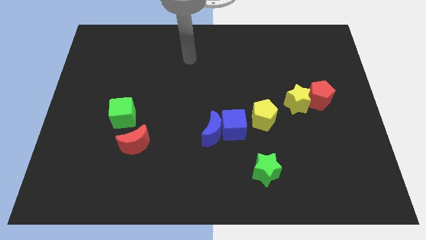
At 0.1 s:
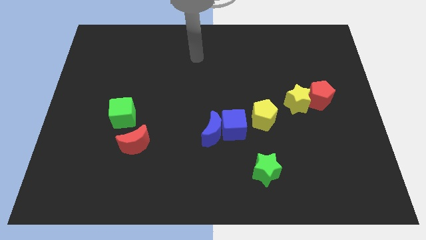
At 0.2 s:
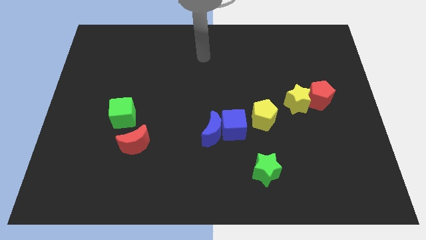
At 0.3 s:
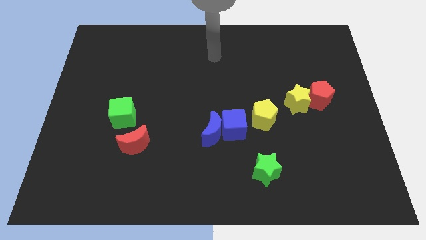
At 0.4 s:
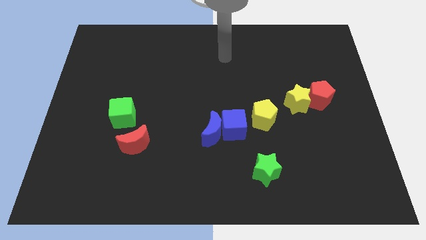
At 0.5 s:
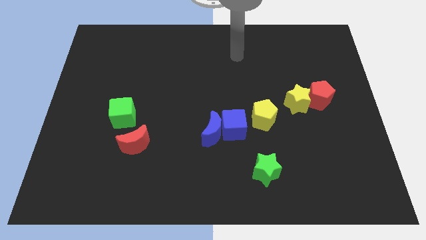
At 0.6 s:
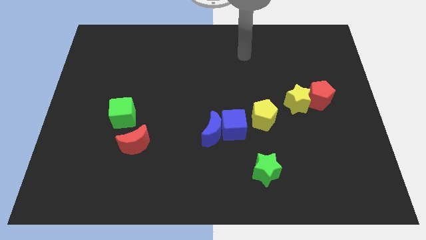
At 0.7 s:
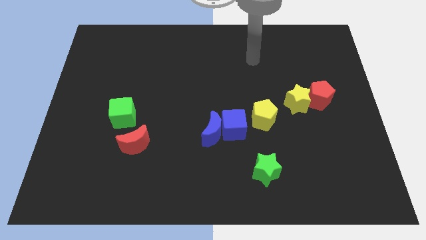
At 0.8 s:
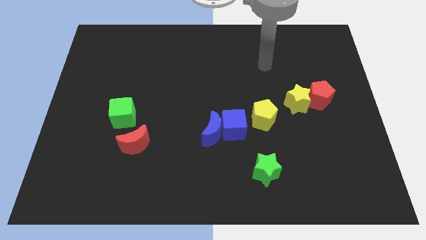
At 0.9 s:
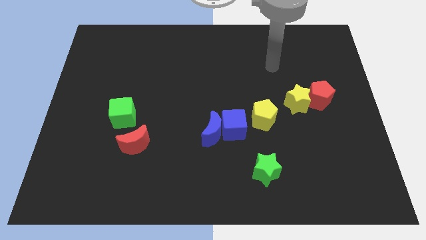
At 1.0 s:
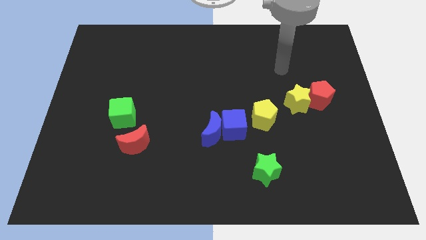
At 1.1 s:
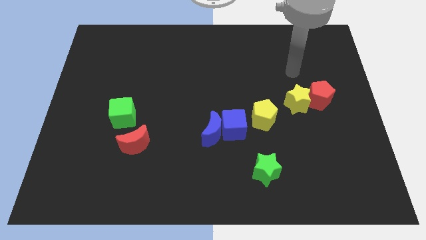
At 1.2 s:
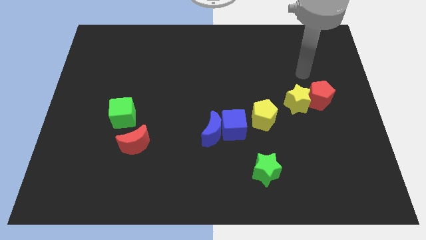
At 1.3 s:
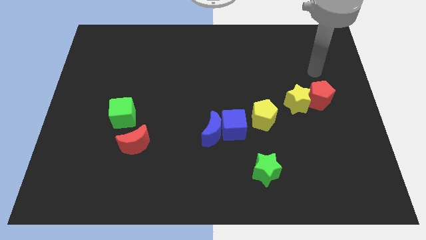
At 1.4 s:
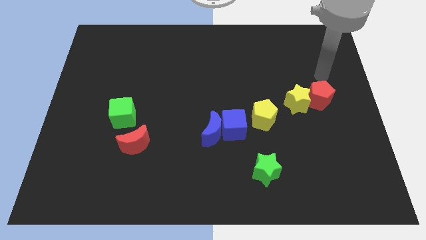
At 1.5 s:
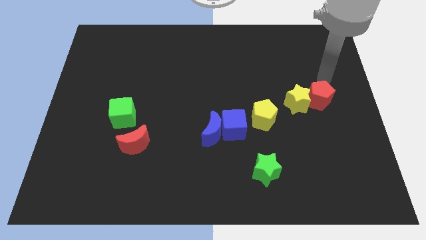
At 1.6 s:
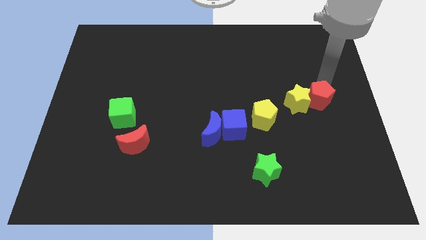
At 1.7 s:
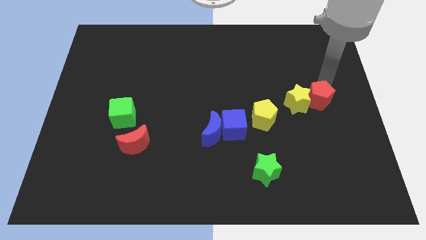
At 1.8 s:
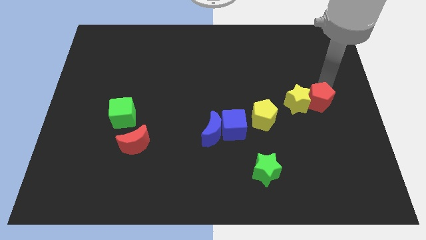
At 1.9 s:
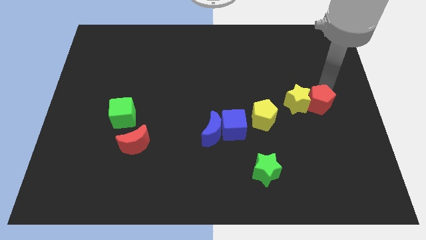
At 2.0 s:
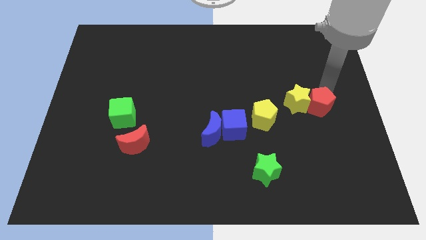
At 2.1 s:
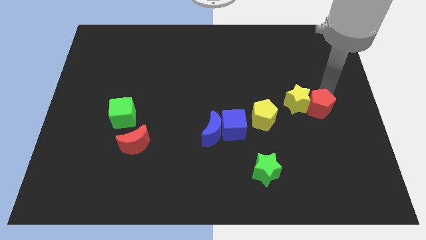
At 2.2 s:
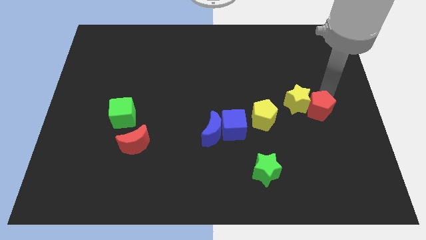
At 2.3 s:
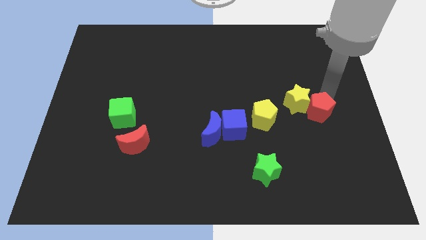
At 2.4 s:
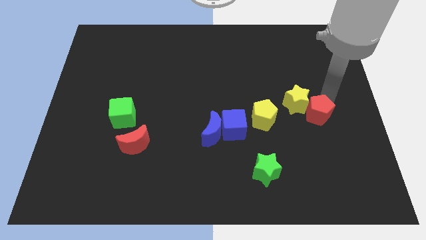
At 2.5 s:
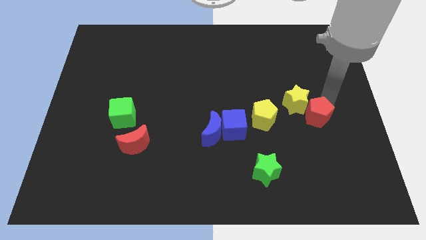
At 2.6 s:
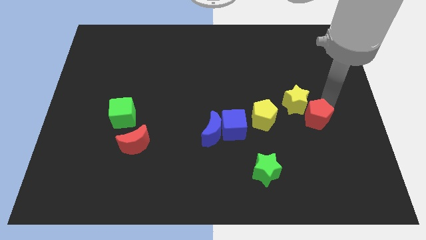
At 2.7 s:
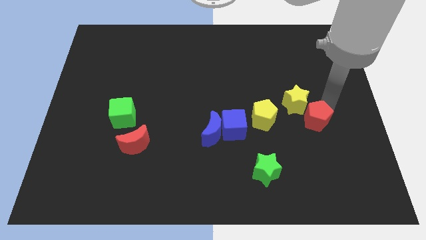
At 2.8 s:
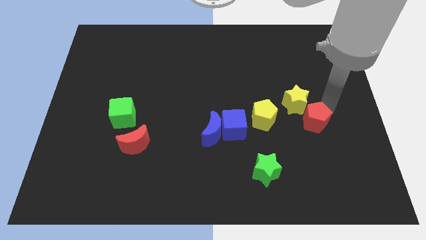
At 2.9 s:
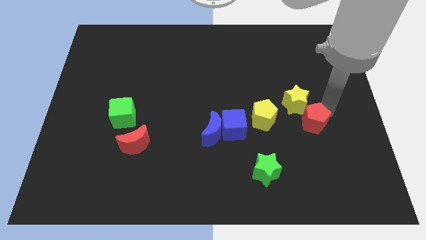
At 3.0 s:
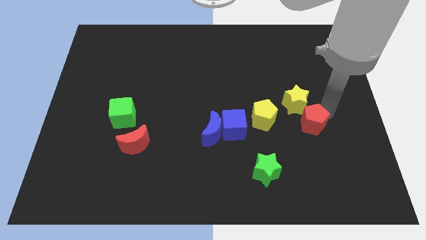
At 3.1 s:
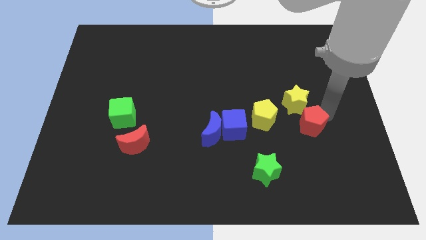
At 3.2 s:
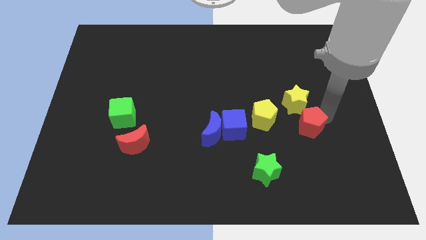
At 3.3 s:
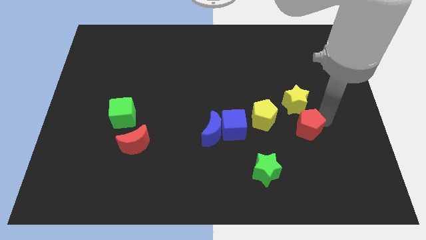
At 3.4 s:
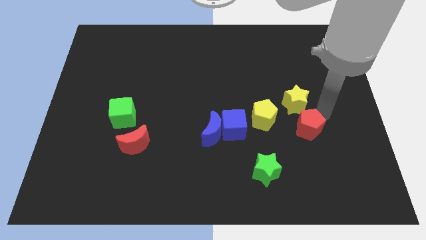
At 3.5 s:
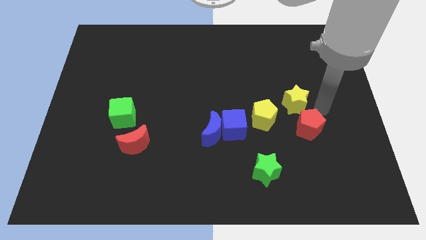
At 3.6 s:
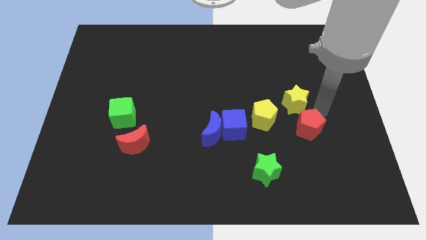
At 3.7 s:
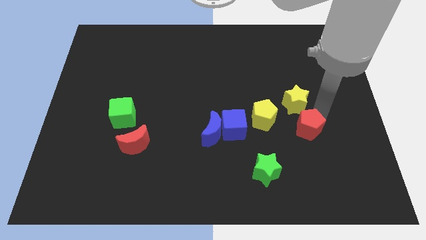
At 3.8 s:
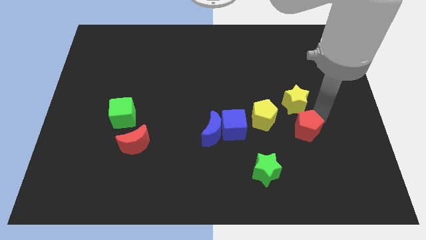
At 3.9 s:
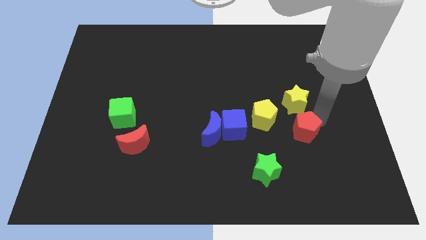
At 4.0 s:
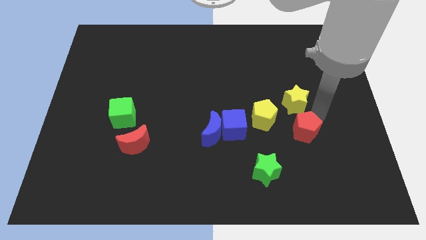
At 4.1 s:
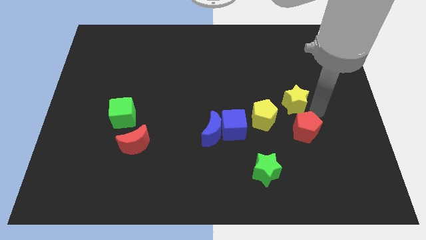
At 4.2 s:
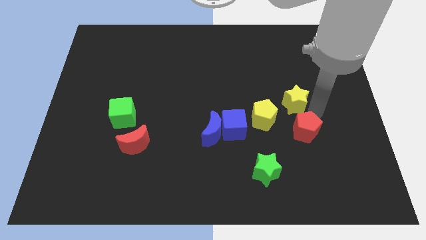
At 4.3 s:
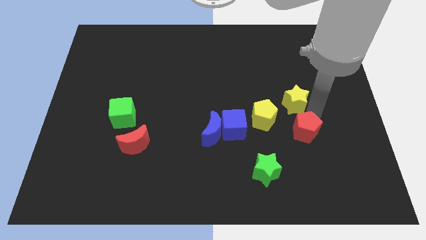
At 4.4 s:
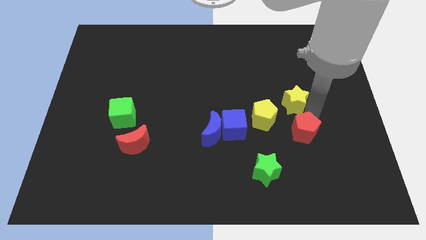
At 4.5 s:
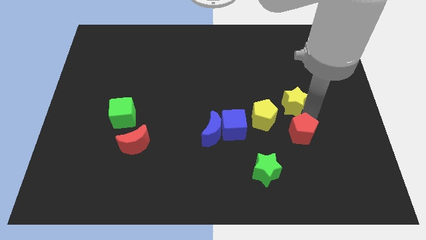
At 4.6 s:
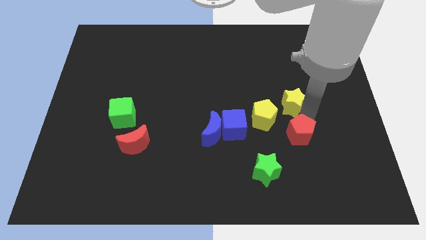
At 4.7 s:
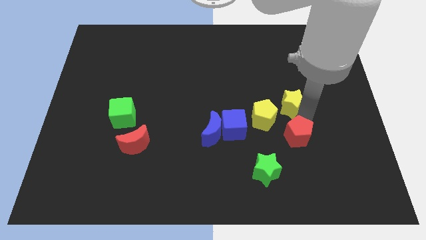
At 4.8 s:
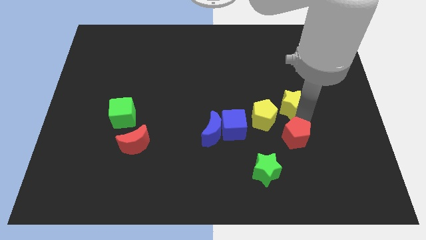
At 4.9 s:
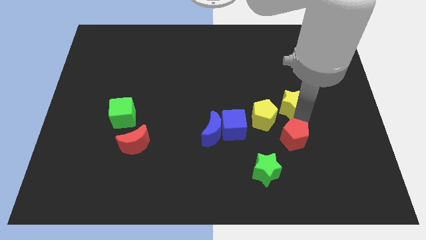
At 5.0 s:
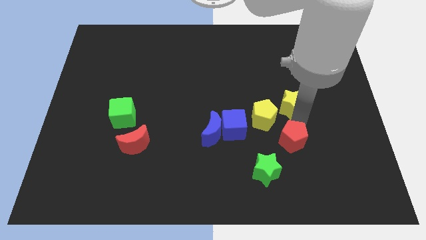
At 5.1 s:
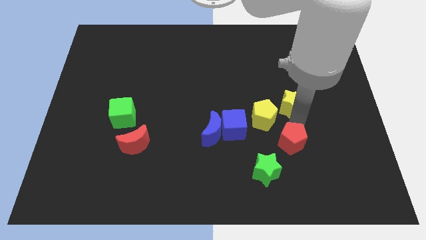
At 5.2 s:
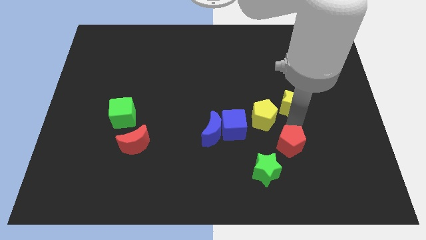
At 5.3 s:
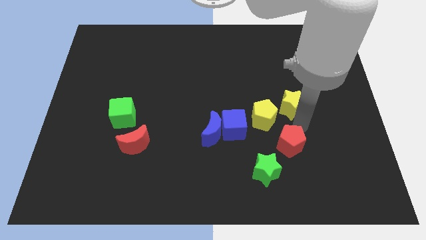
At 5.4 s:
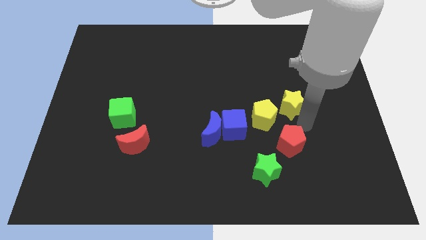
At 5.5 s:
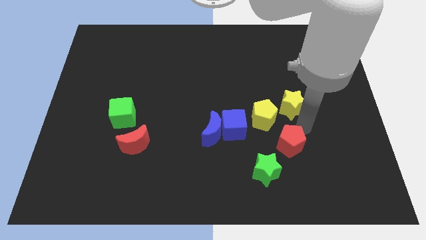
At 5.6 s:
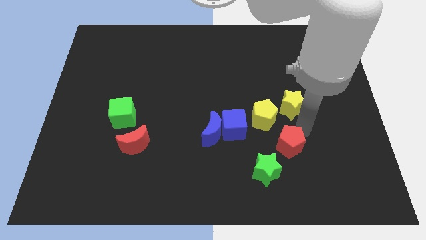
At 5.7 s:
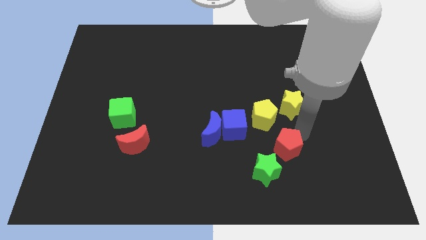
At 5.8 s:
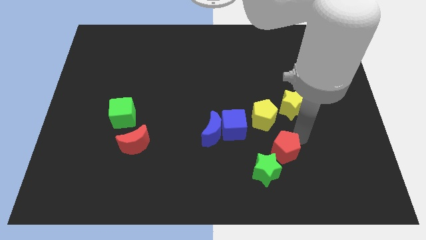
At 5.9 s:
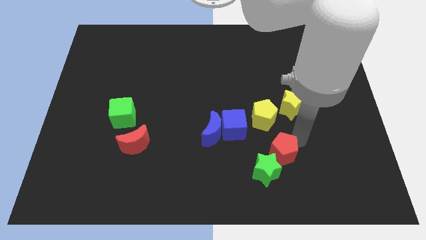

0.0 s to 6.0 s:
put the red pentagon towards the green star
